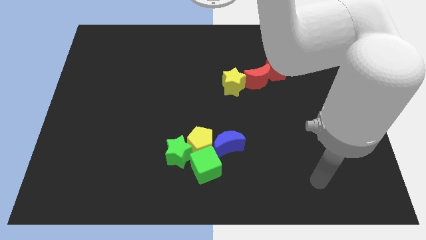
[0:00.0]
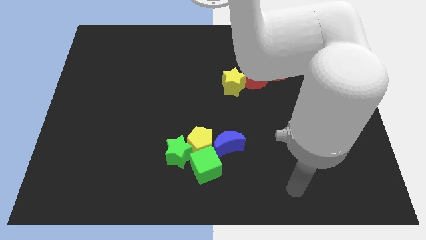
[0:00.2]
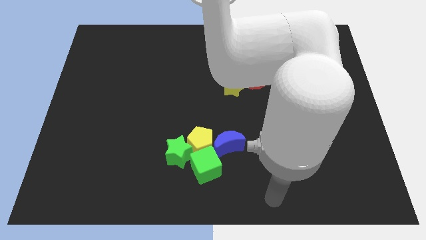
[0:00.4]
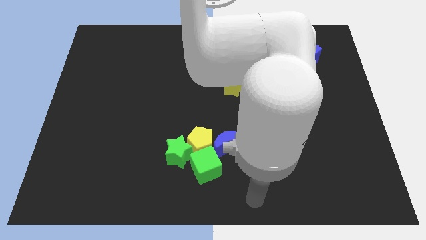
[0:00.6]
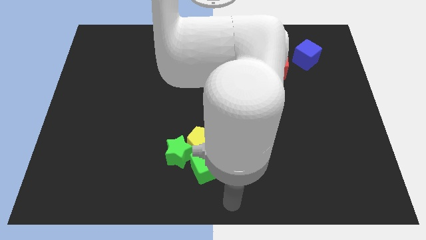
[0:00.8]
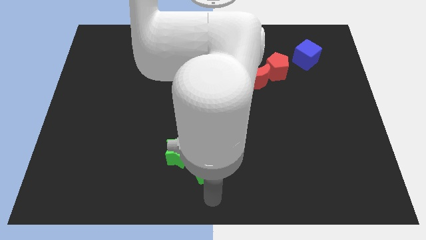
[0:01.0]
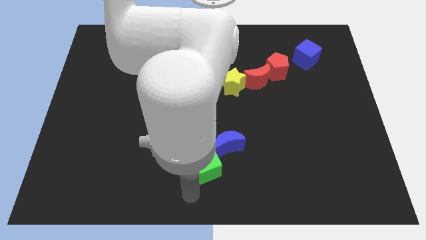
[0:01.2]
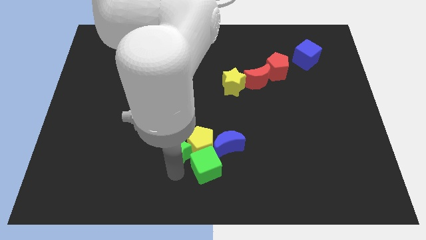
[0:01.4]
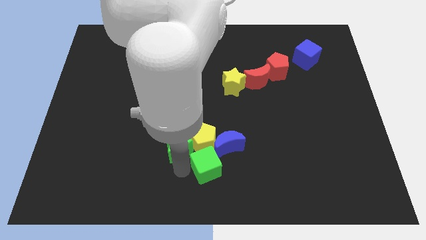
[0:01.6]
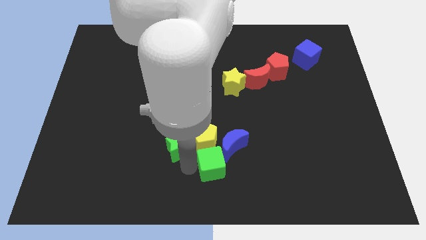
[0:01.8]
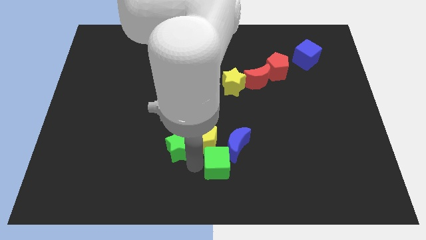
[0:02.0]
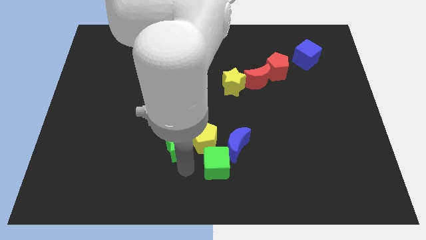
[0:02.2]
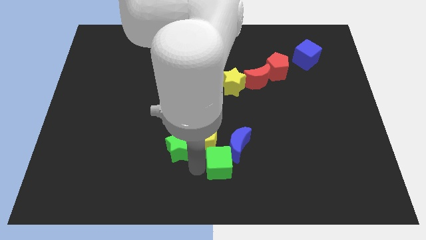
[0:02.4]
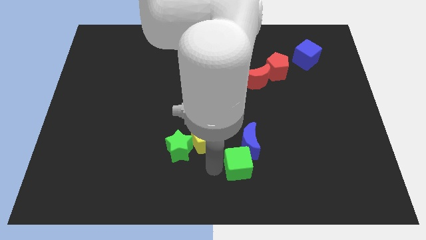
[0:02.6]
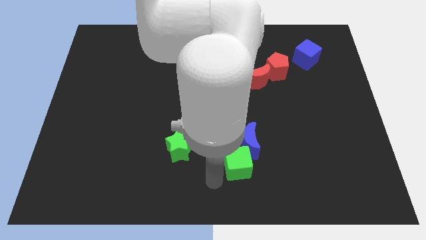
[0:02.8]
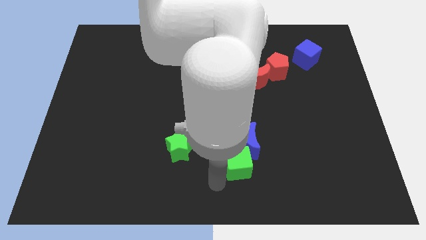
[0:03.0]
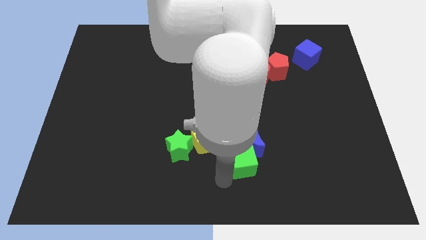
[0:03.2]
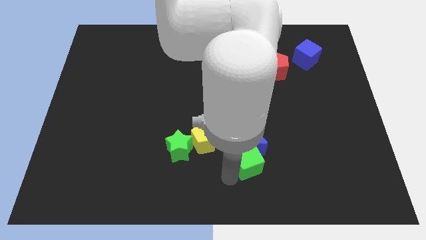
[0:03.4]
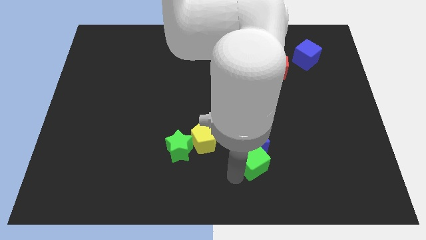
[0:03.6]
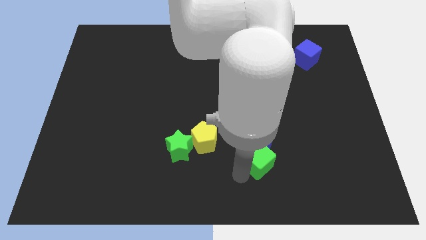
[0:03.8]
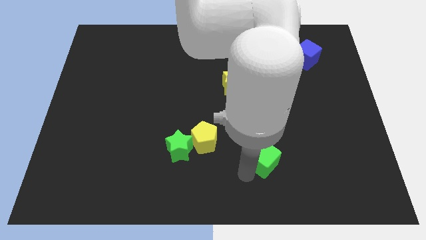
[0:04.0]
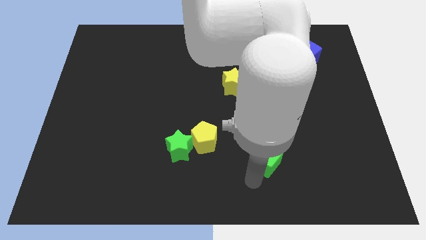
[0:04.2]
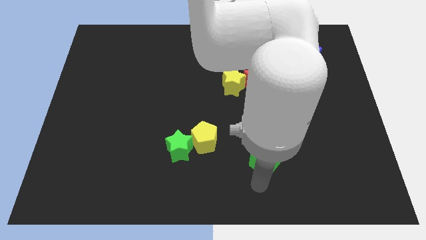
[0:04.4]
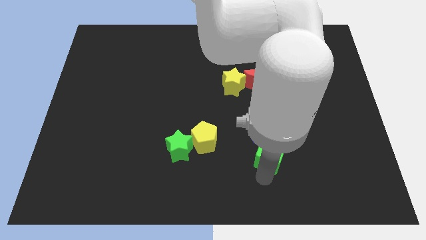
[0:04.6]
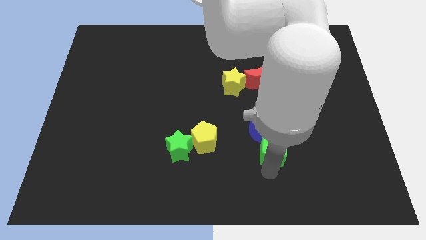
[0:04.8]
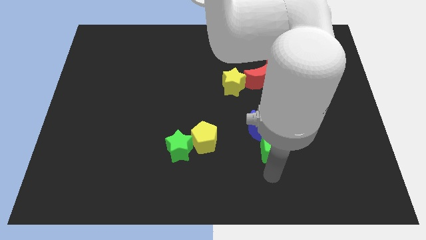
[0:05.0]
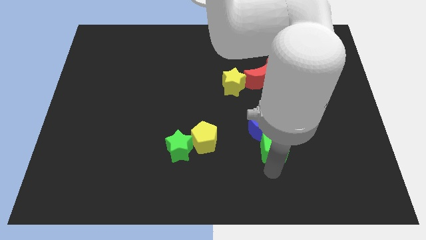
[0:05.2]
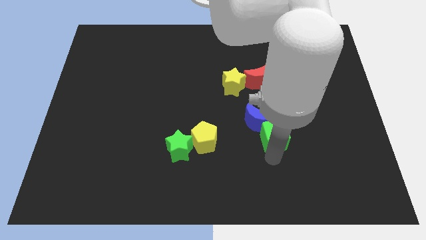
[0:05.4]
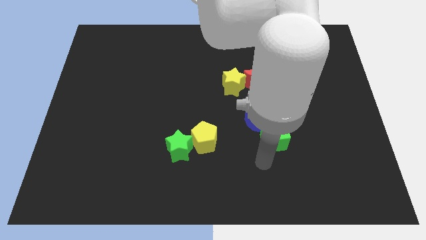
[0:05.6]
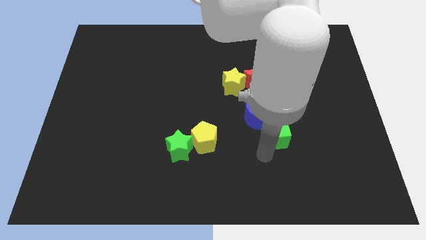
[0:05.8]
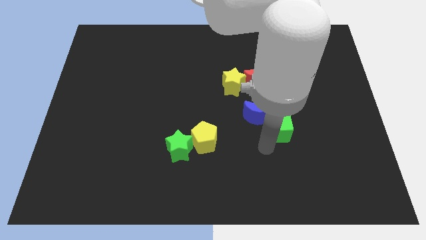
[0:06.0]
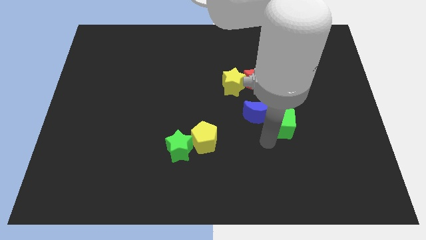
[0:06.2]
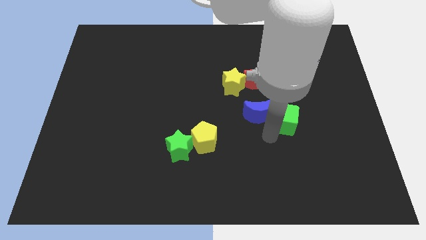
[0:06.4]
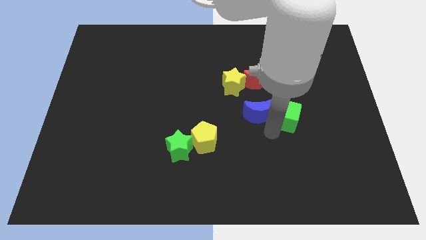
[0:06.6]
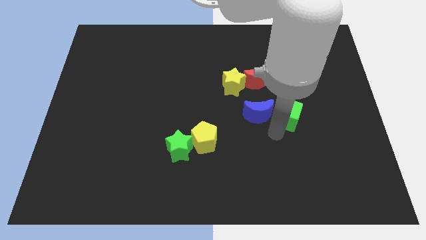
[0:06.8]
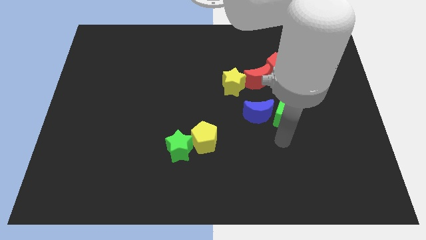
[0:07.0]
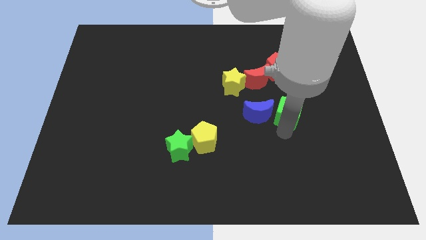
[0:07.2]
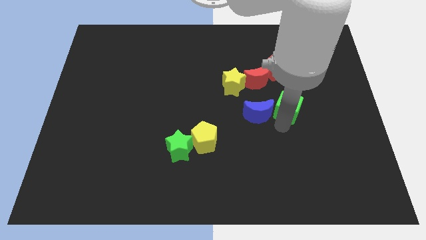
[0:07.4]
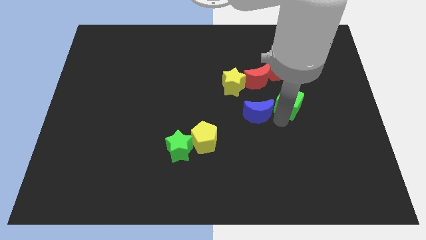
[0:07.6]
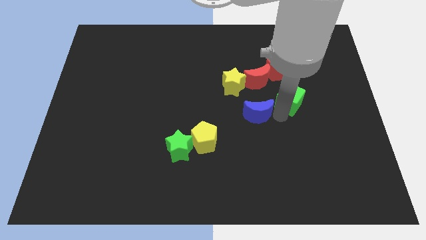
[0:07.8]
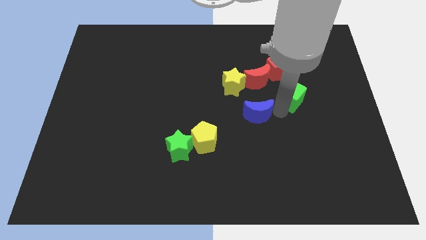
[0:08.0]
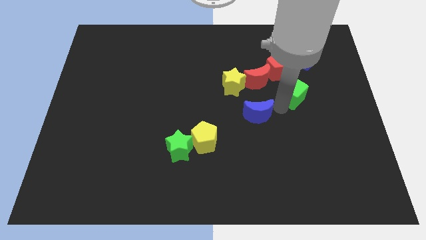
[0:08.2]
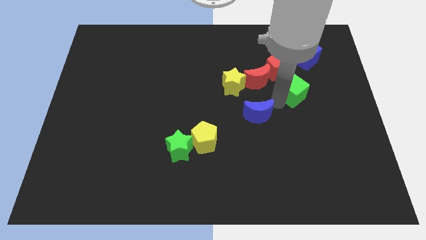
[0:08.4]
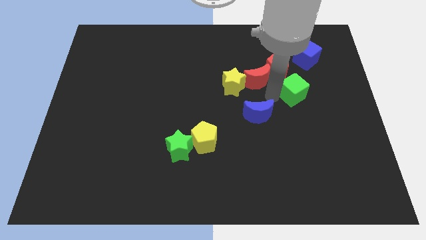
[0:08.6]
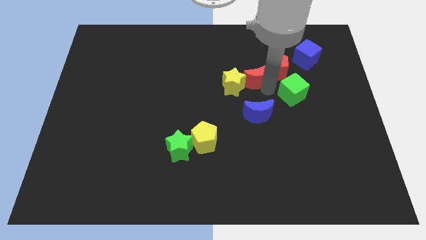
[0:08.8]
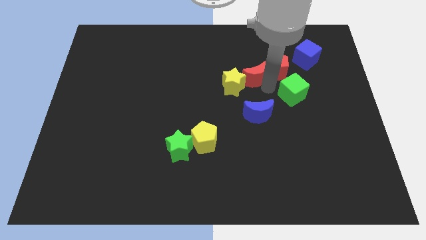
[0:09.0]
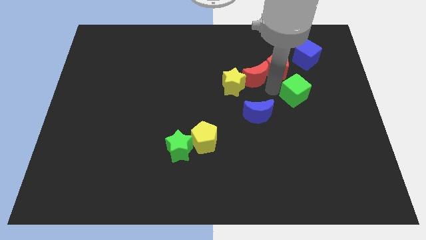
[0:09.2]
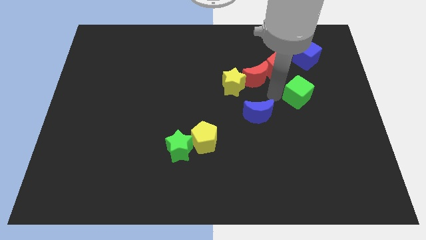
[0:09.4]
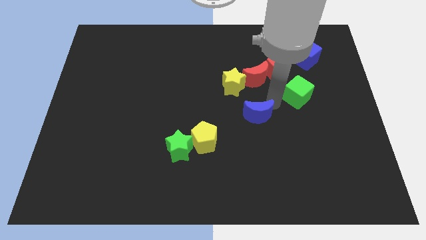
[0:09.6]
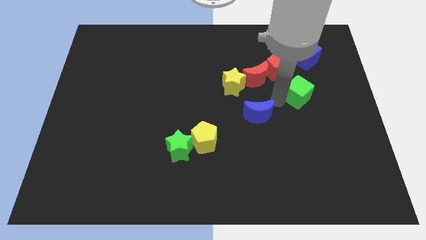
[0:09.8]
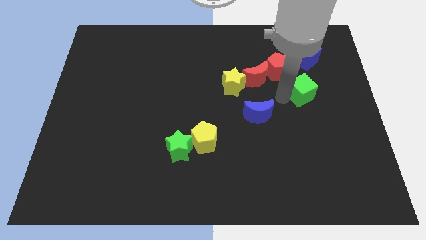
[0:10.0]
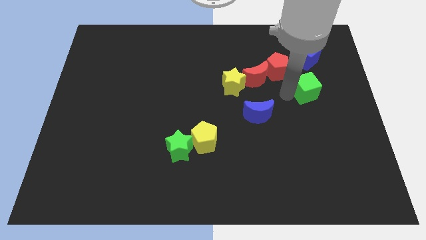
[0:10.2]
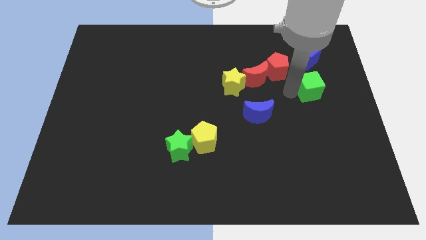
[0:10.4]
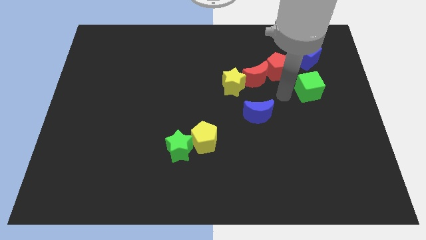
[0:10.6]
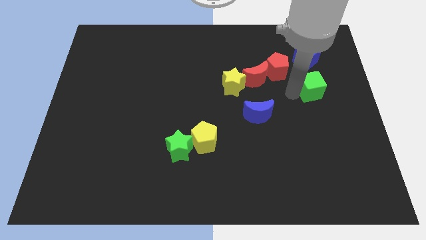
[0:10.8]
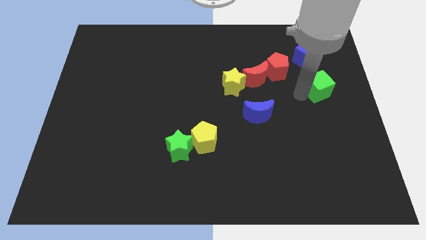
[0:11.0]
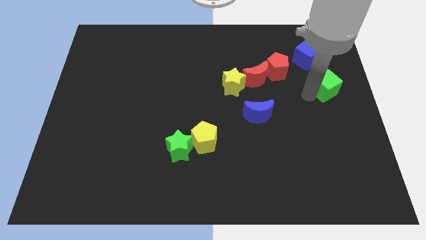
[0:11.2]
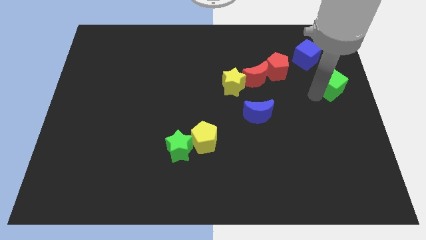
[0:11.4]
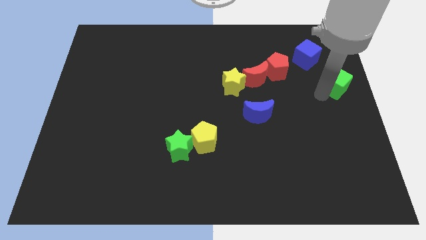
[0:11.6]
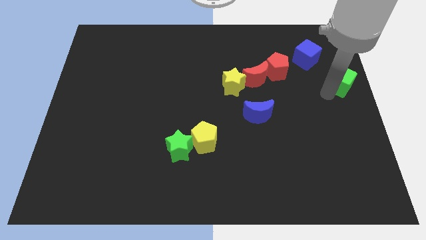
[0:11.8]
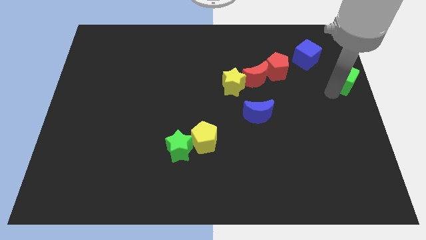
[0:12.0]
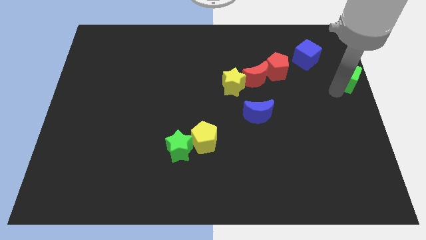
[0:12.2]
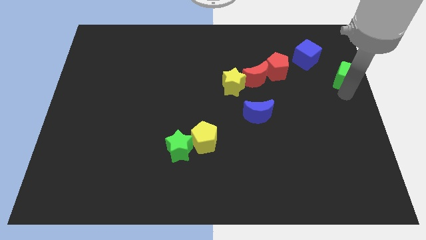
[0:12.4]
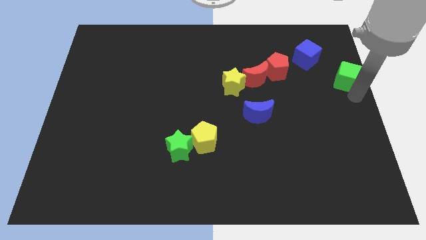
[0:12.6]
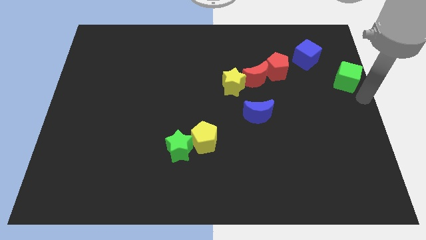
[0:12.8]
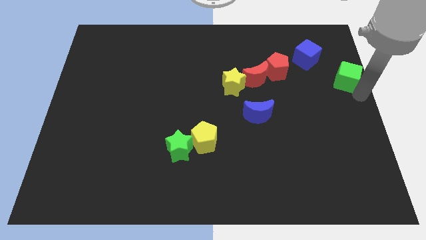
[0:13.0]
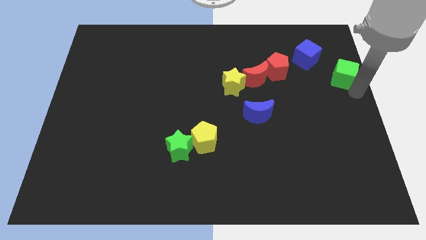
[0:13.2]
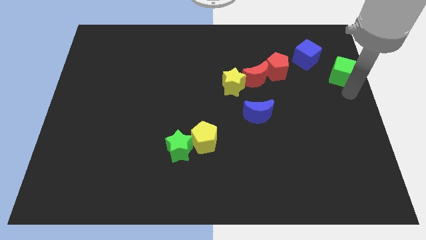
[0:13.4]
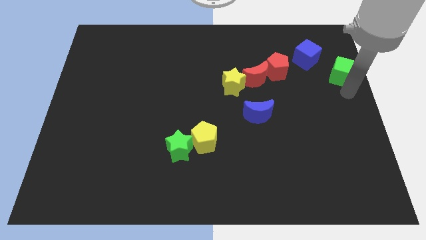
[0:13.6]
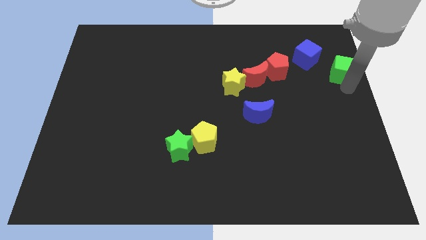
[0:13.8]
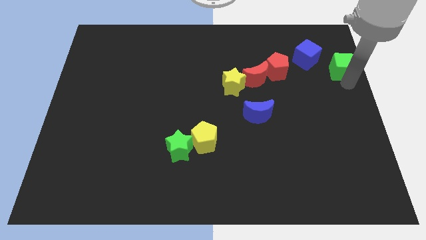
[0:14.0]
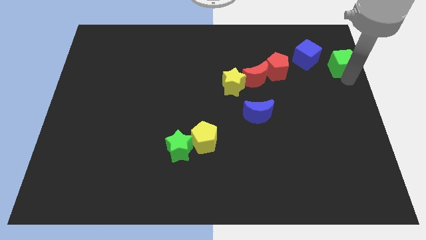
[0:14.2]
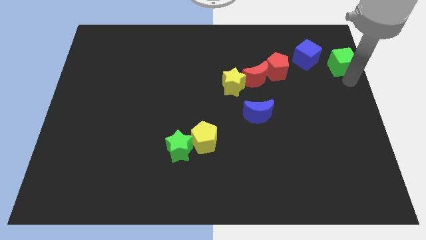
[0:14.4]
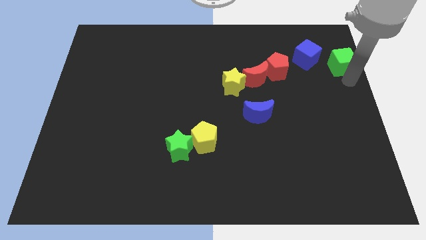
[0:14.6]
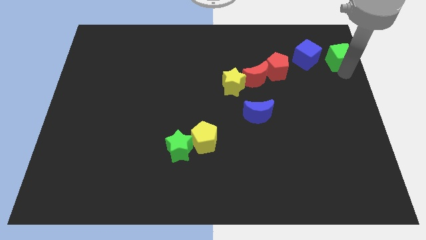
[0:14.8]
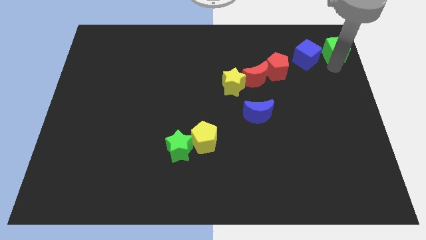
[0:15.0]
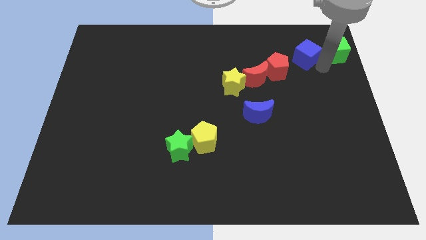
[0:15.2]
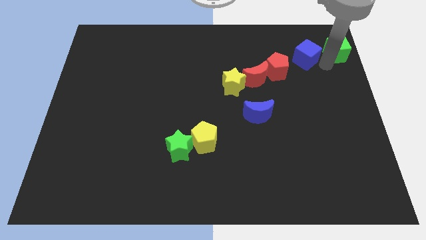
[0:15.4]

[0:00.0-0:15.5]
push the green cube to the upper right corner
